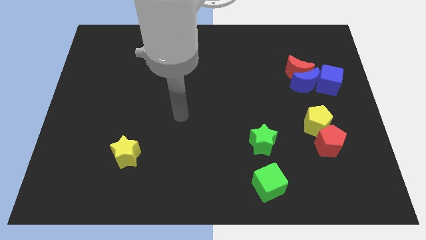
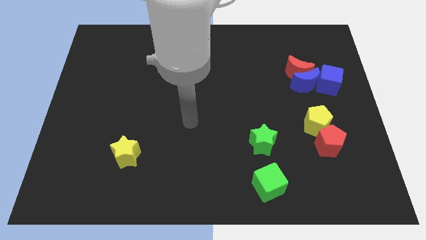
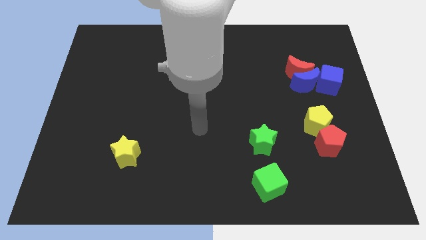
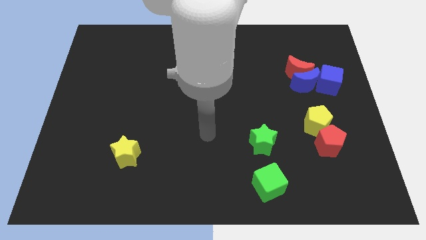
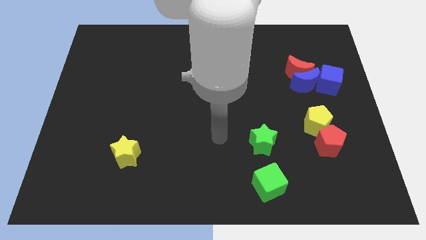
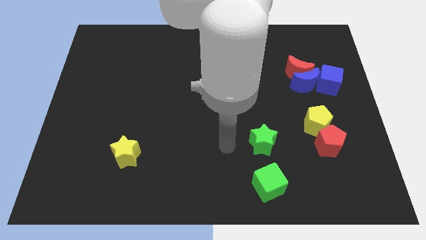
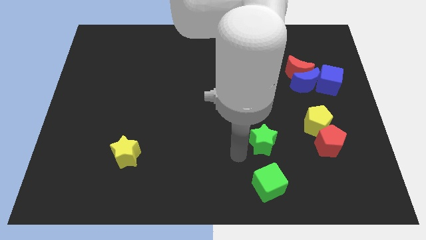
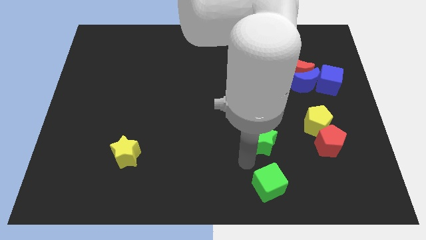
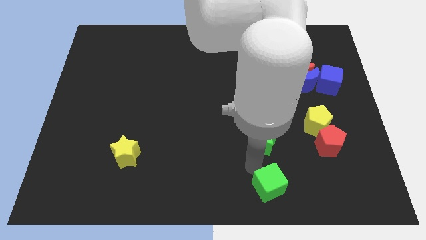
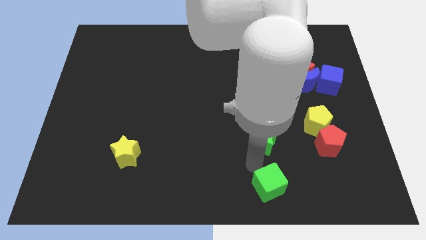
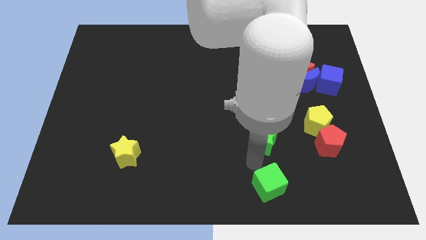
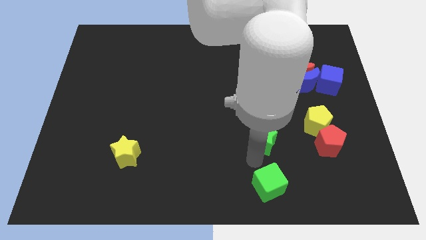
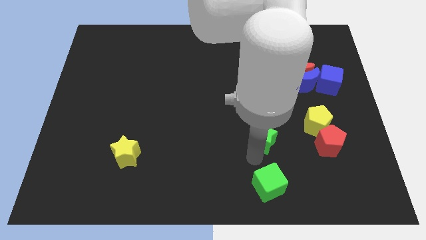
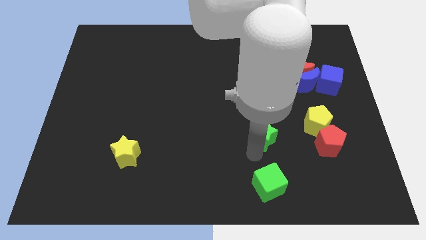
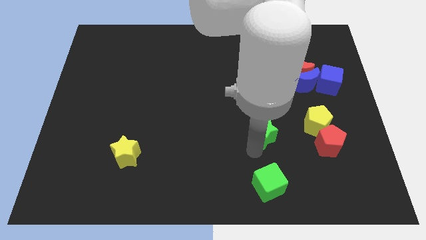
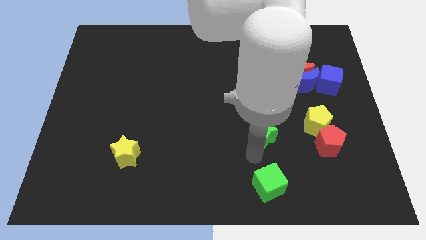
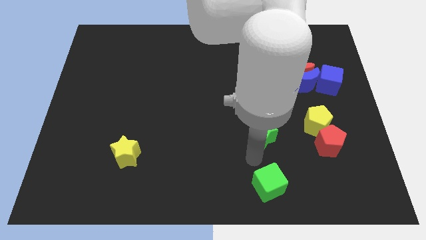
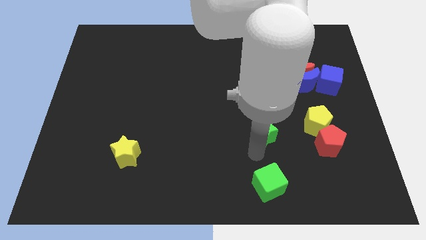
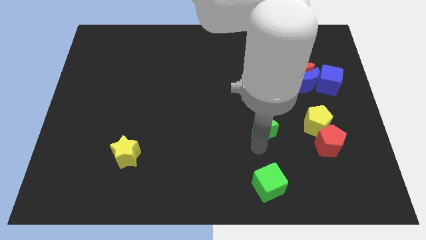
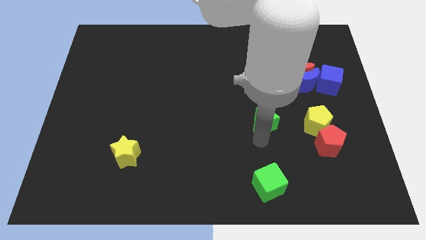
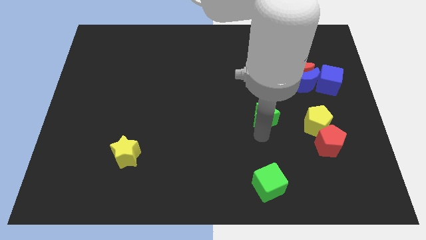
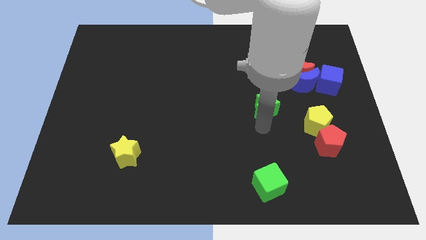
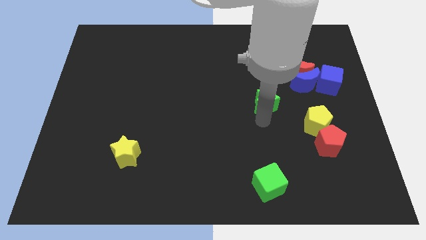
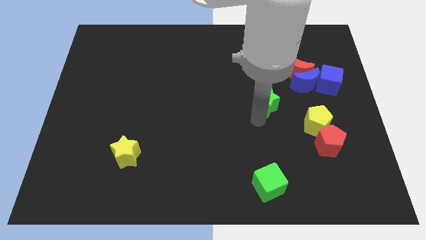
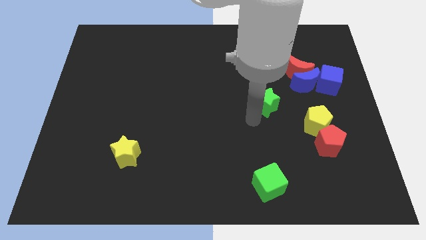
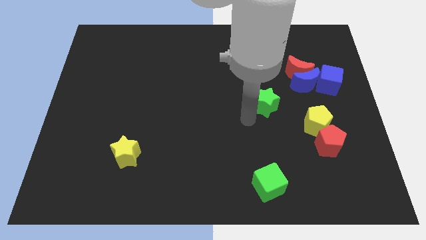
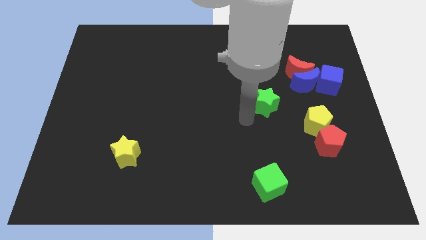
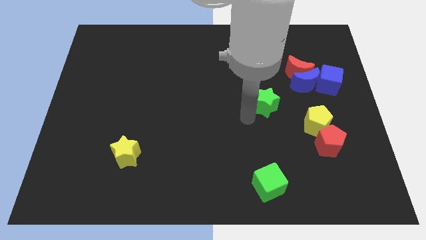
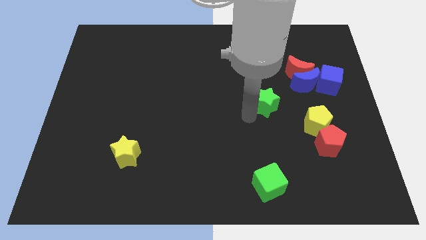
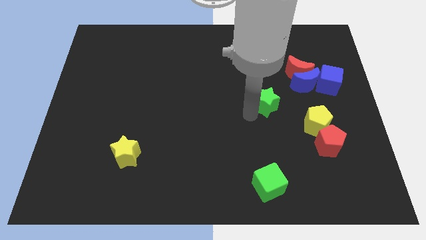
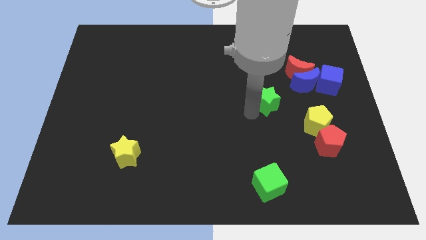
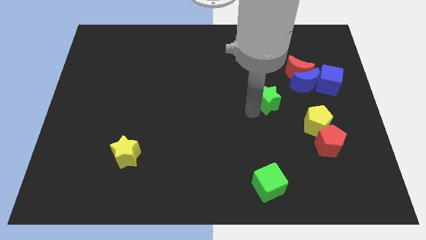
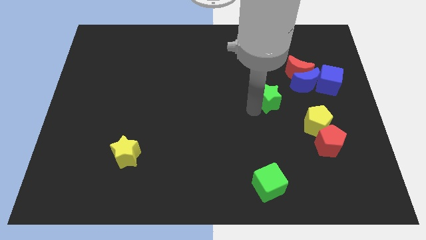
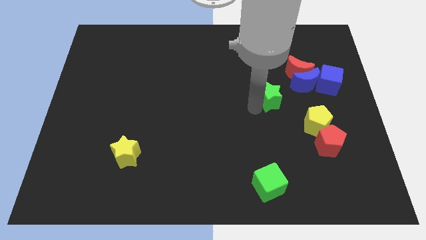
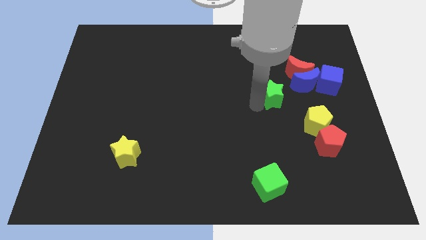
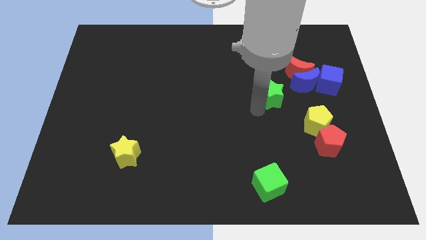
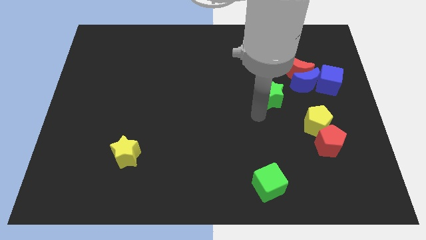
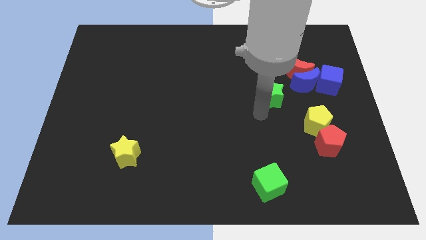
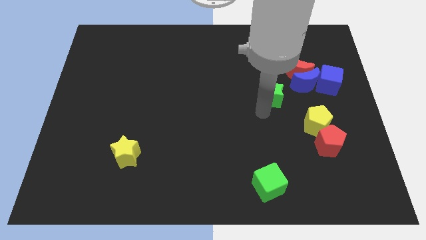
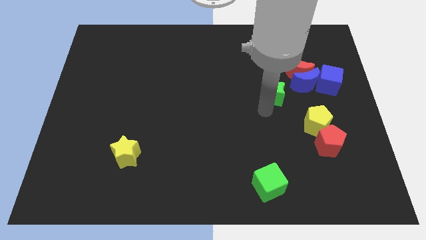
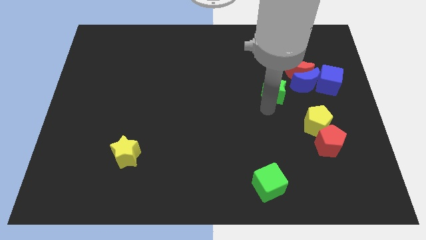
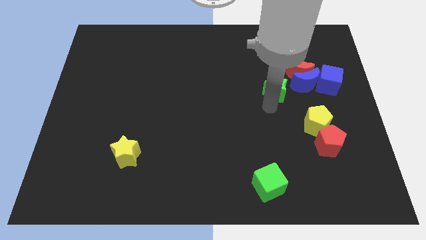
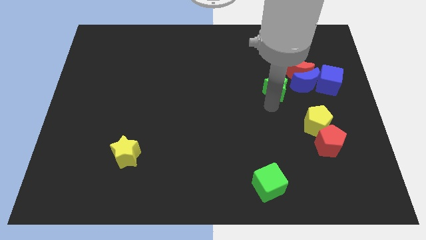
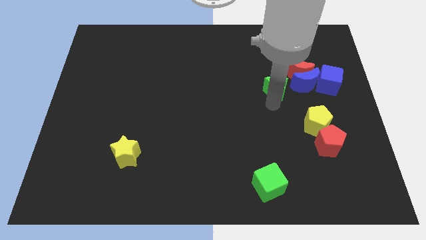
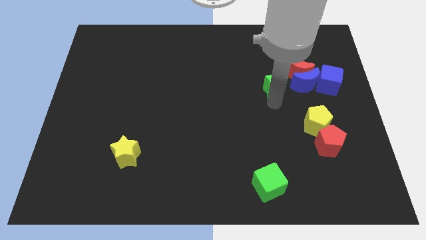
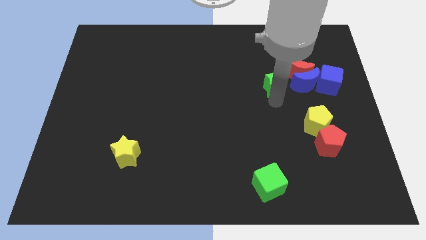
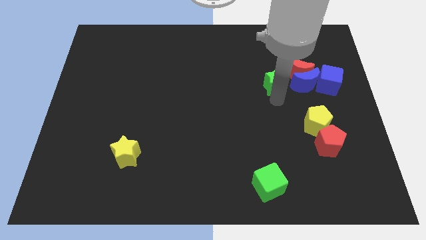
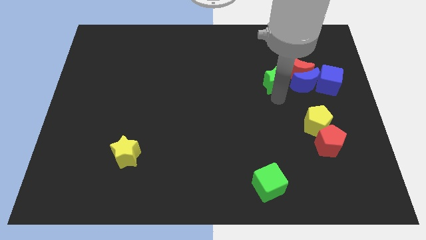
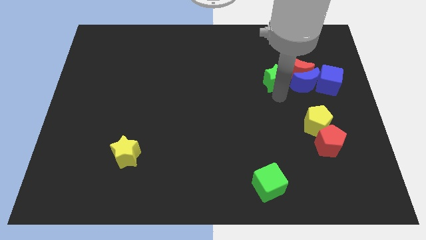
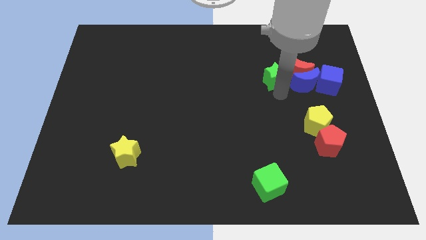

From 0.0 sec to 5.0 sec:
slide the green star to the red moon

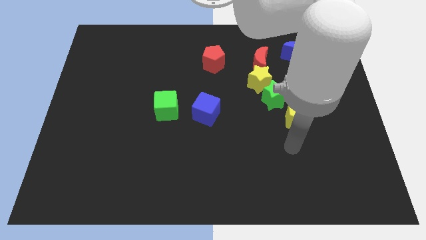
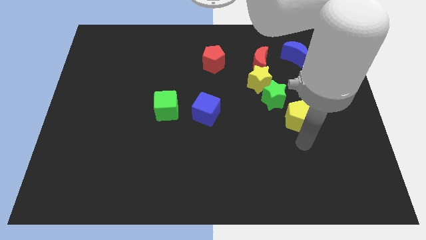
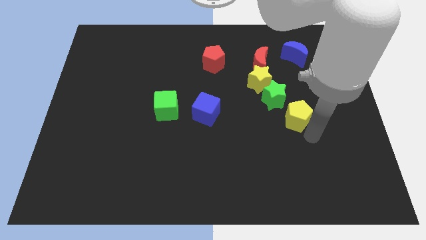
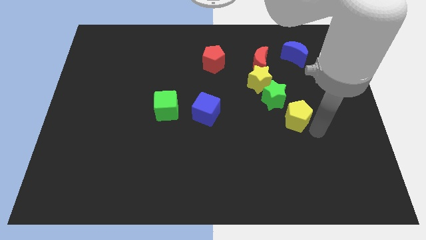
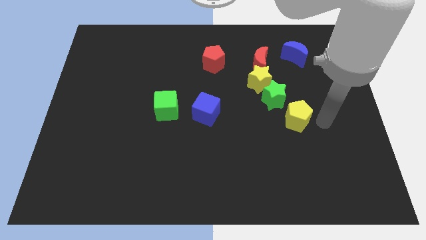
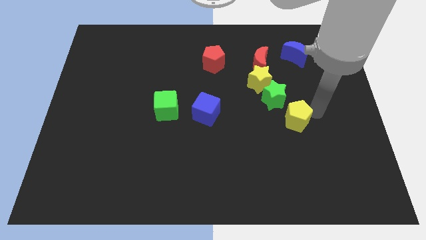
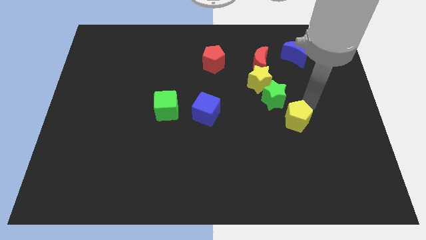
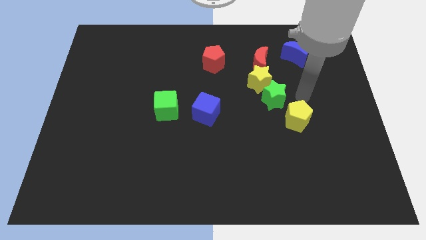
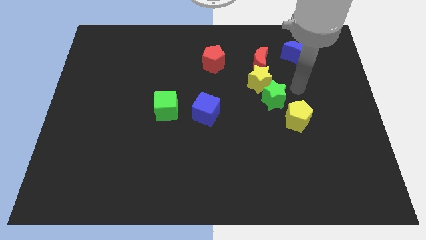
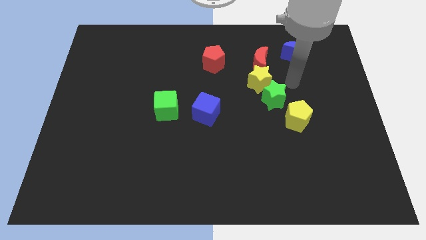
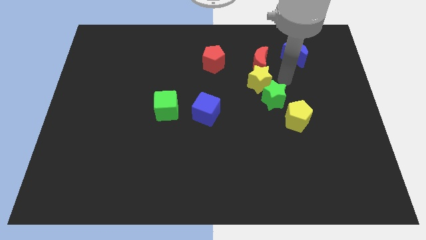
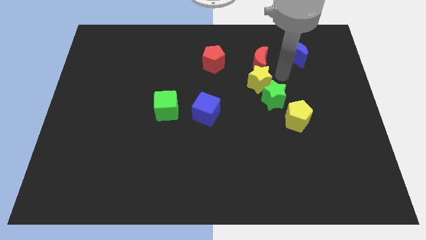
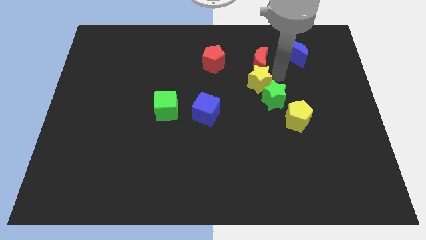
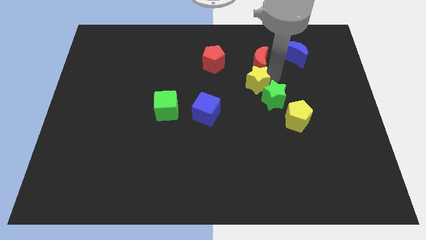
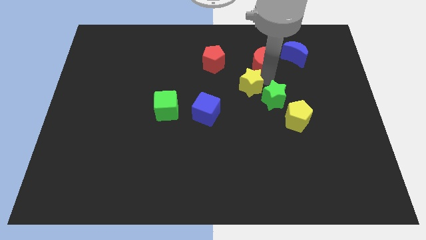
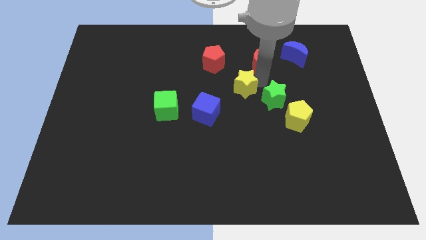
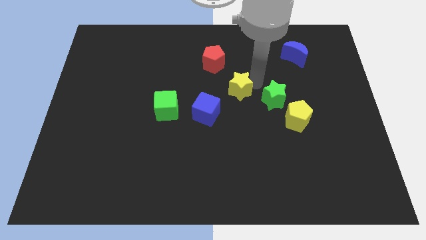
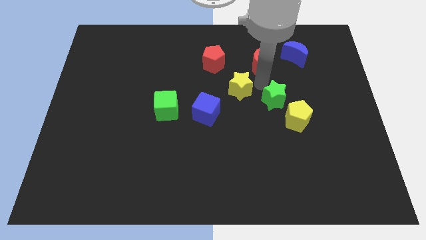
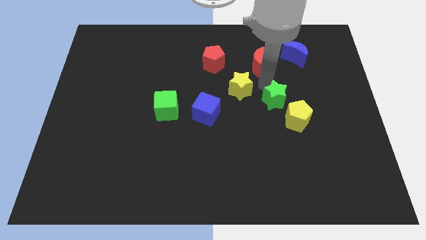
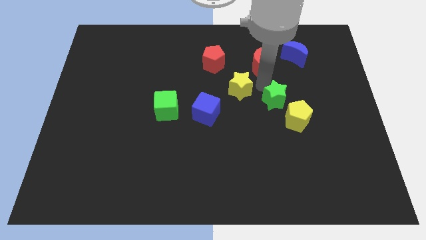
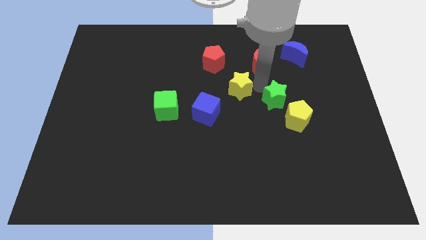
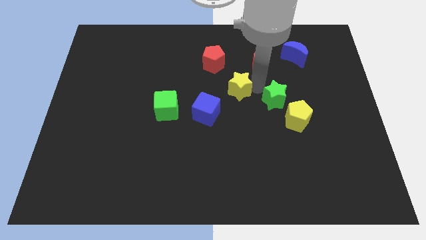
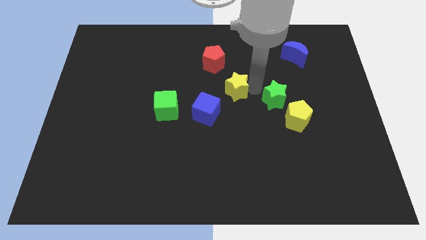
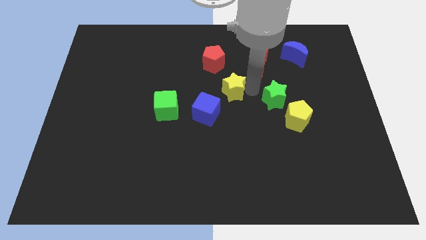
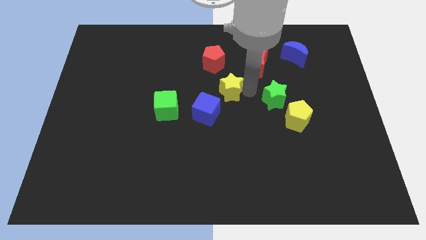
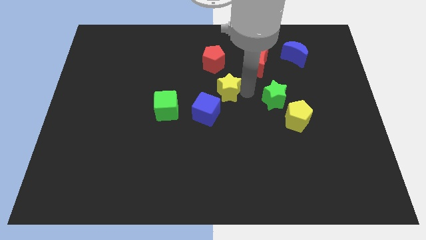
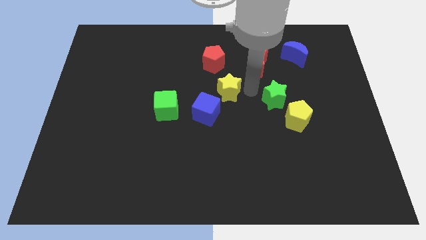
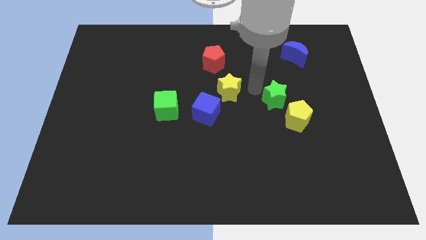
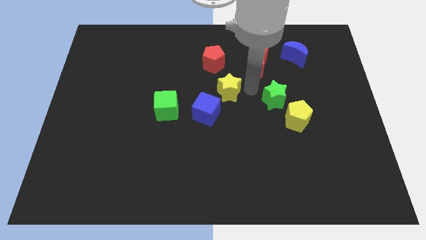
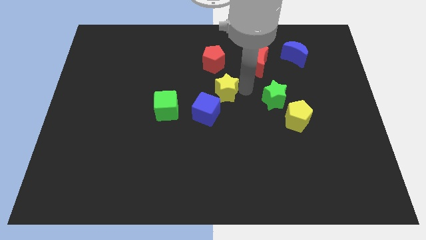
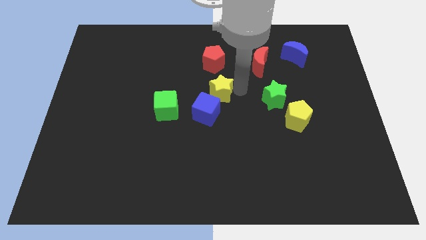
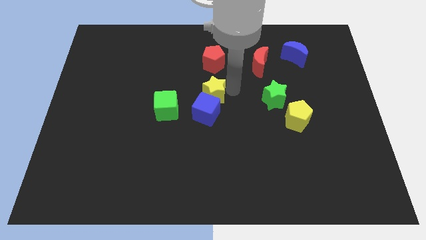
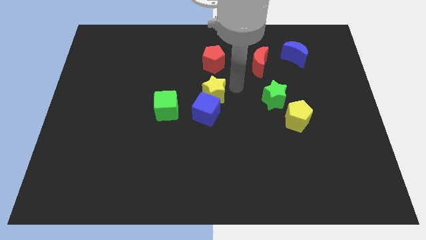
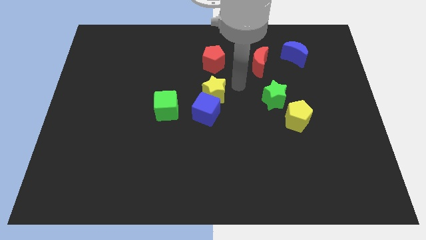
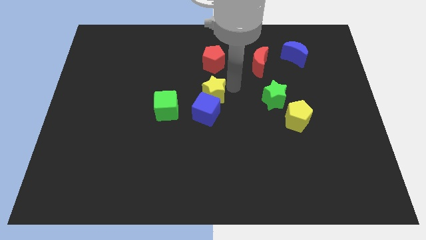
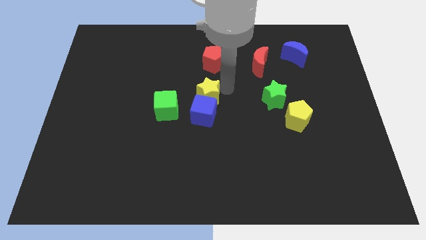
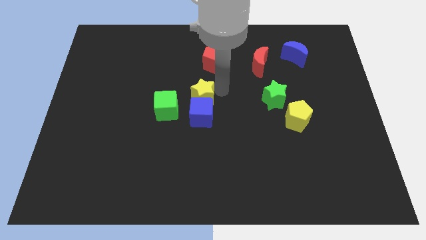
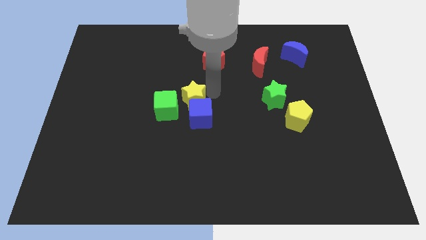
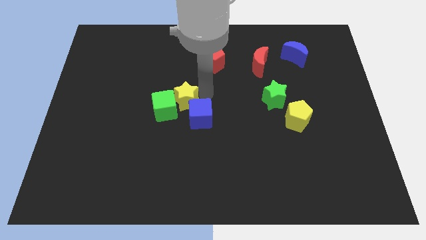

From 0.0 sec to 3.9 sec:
slide the yellow star to the green cube
